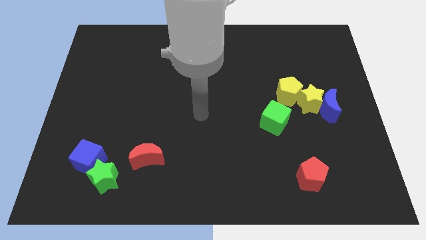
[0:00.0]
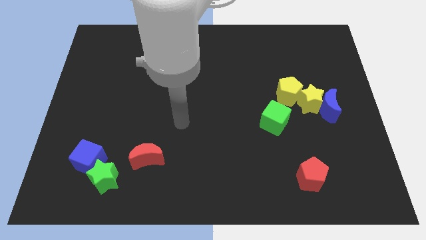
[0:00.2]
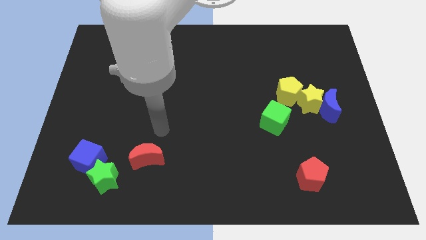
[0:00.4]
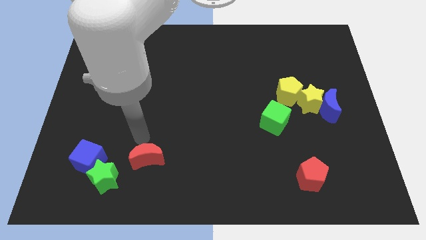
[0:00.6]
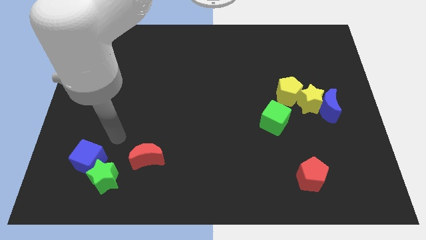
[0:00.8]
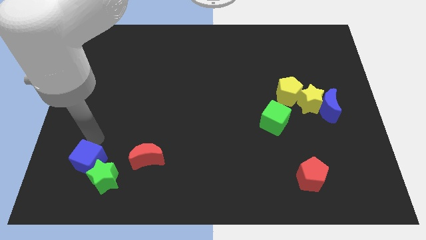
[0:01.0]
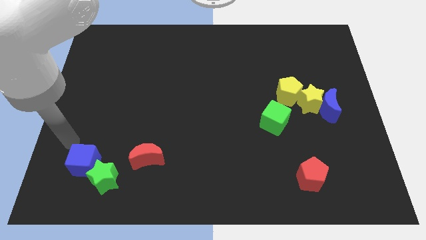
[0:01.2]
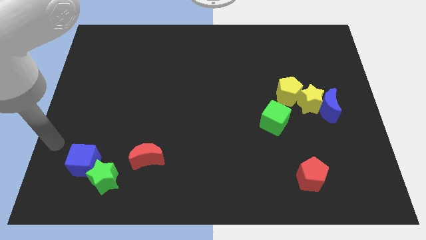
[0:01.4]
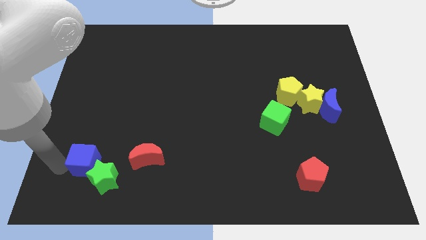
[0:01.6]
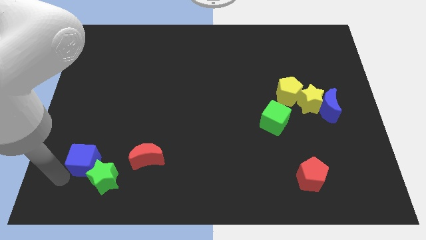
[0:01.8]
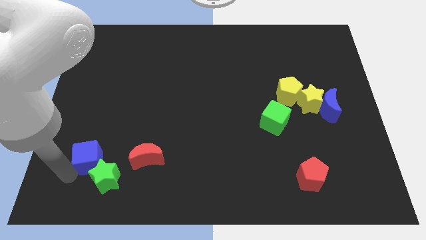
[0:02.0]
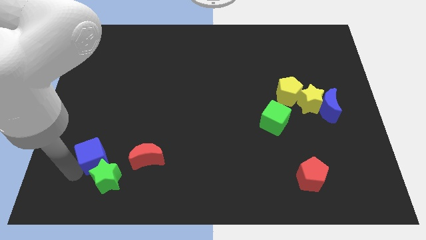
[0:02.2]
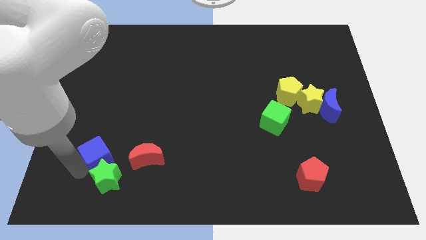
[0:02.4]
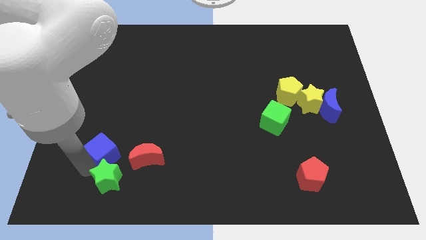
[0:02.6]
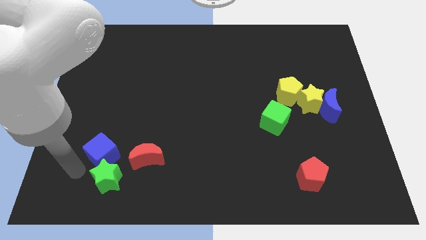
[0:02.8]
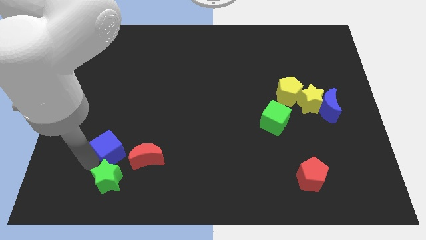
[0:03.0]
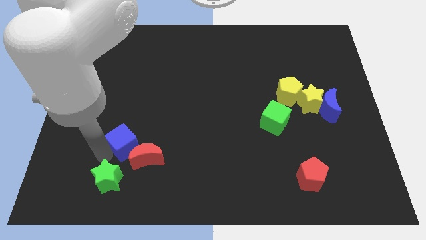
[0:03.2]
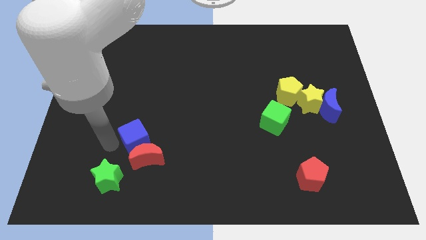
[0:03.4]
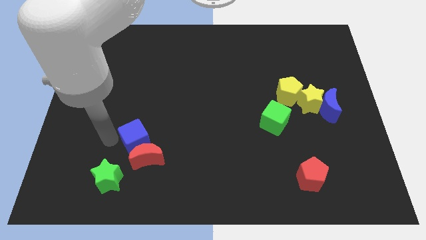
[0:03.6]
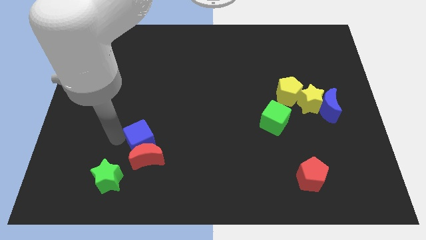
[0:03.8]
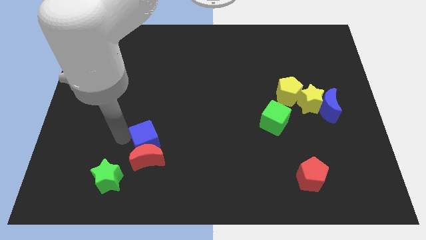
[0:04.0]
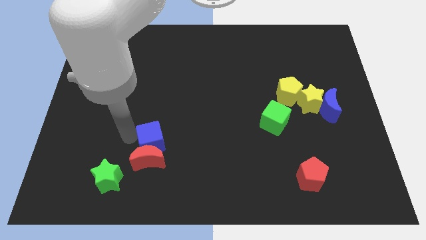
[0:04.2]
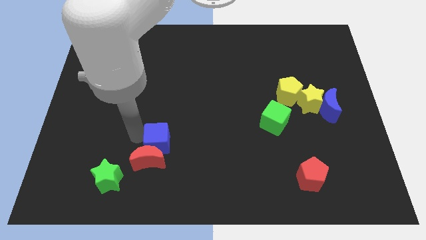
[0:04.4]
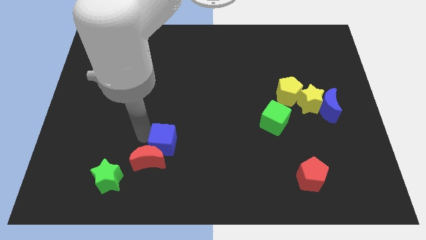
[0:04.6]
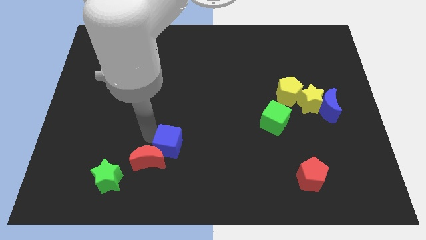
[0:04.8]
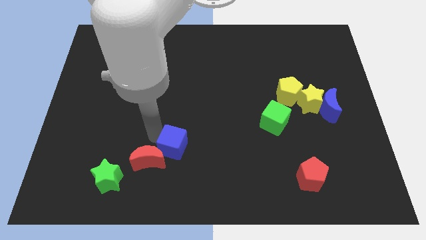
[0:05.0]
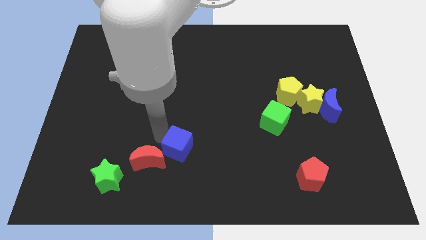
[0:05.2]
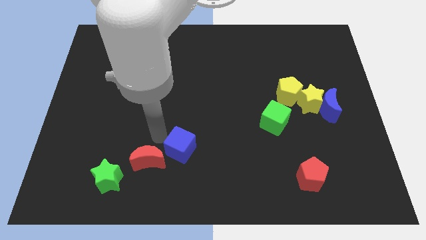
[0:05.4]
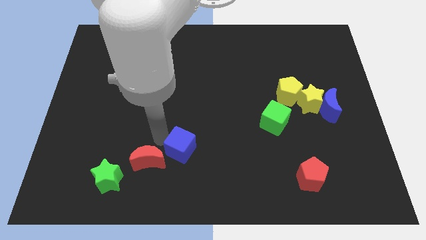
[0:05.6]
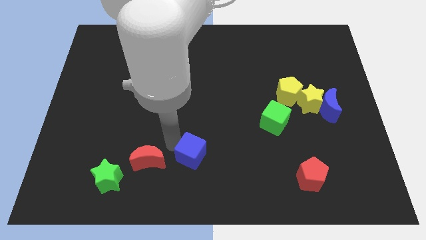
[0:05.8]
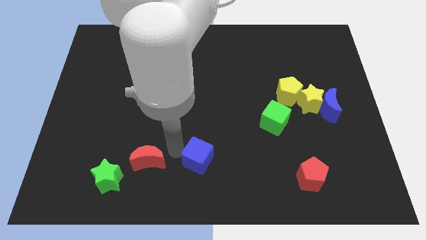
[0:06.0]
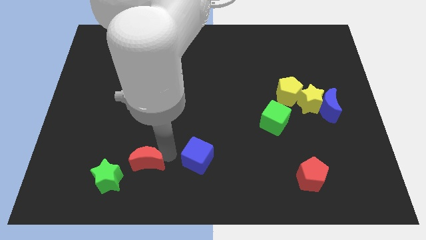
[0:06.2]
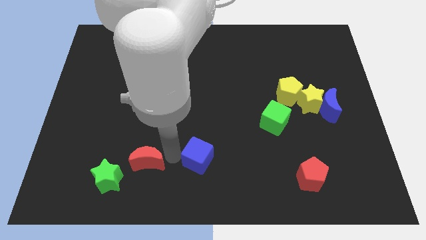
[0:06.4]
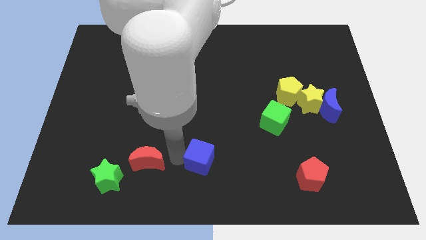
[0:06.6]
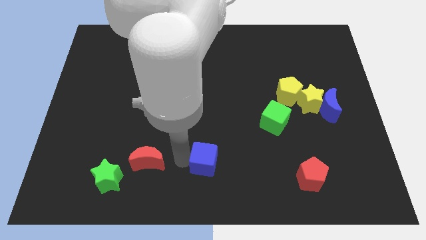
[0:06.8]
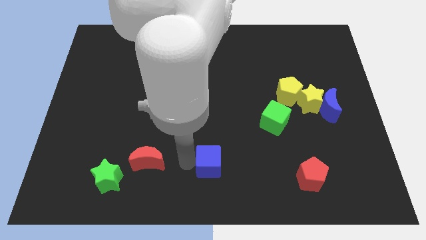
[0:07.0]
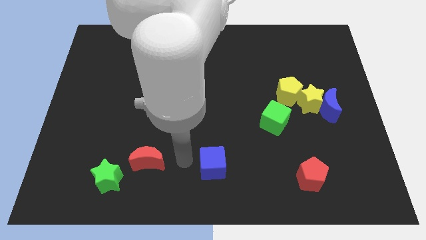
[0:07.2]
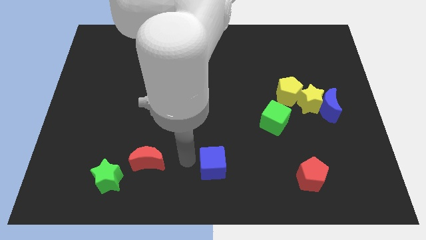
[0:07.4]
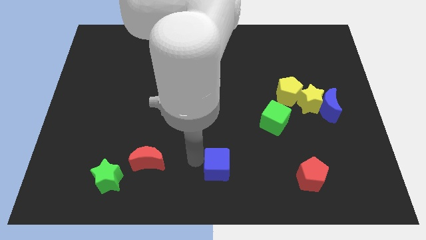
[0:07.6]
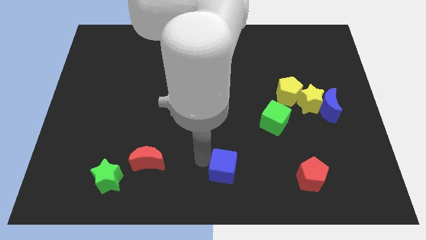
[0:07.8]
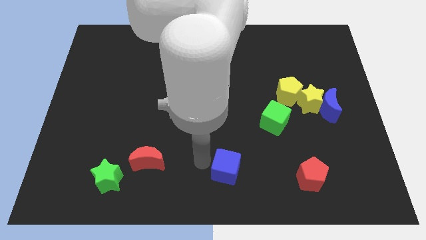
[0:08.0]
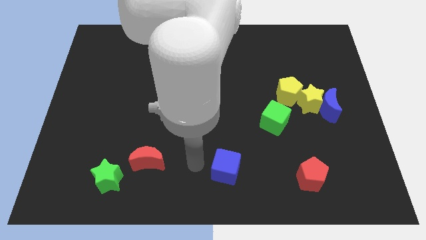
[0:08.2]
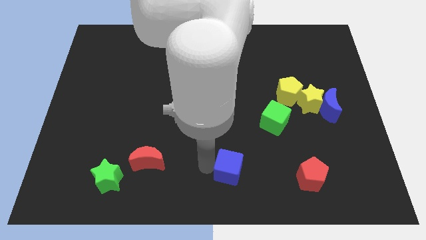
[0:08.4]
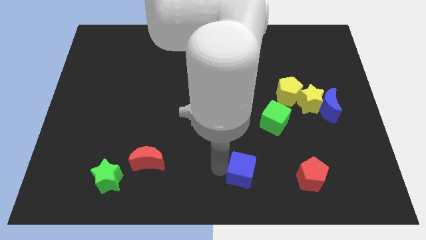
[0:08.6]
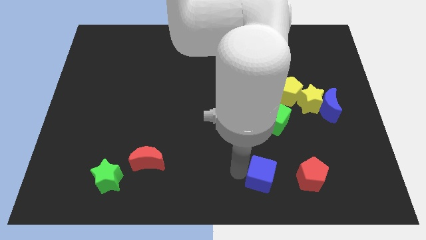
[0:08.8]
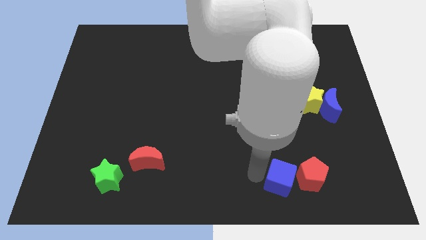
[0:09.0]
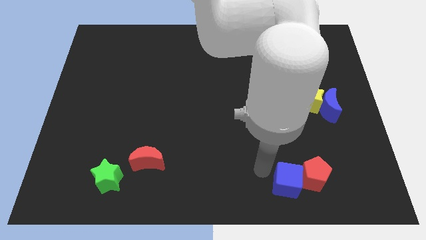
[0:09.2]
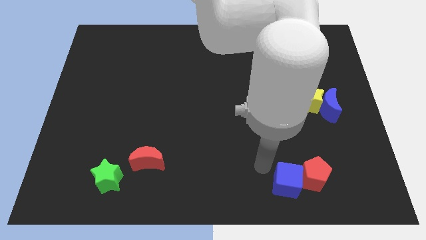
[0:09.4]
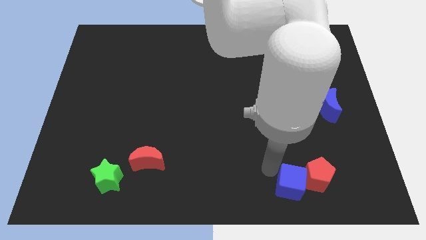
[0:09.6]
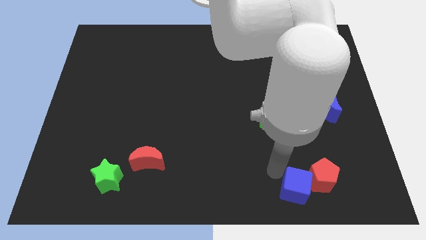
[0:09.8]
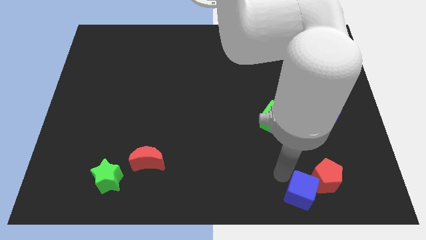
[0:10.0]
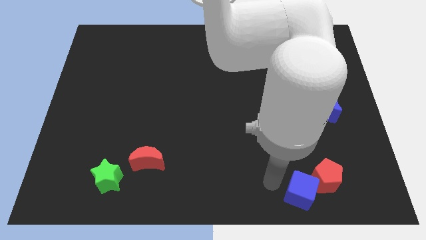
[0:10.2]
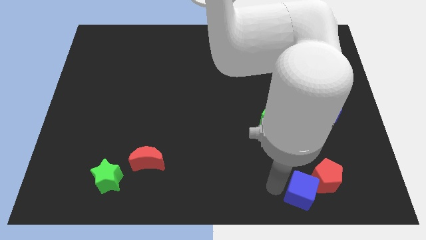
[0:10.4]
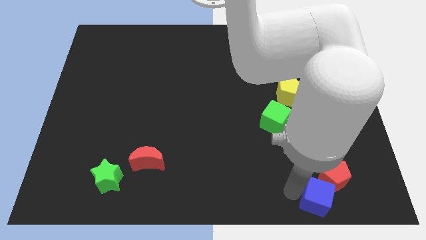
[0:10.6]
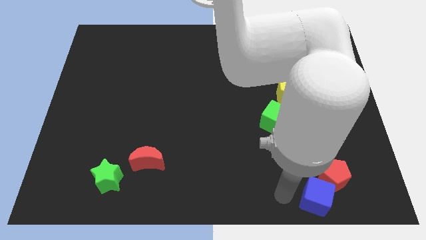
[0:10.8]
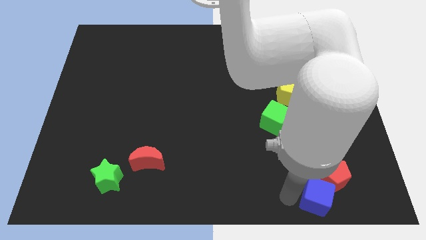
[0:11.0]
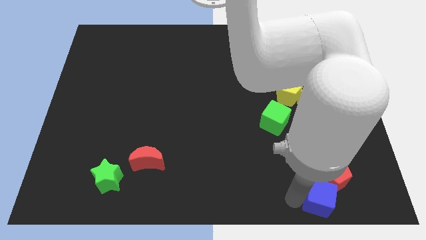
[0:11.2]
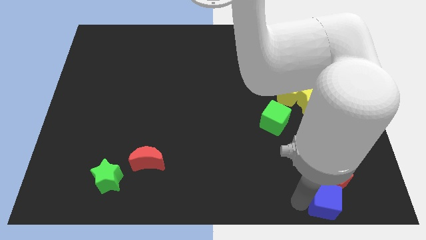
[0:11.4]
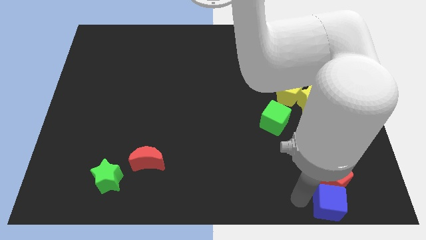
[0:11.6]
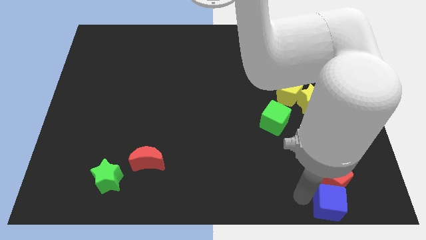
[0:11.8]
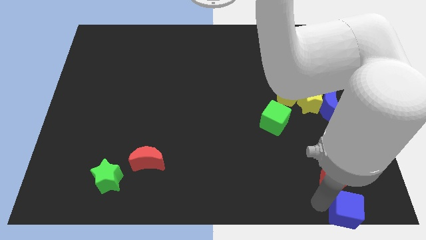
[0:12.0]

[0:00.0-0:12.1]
push the blue cube to the lower right corner
